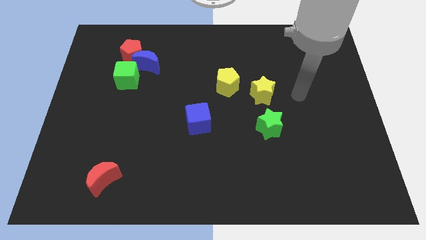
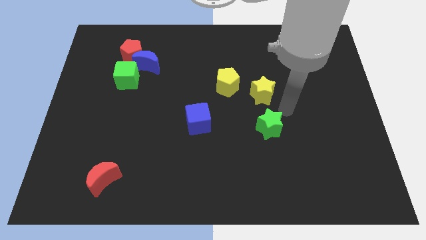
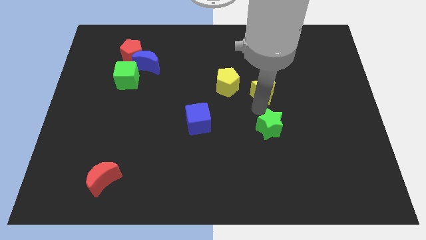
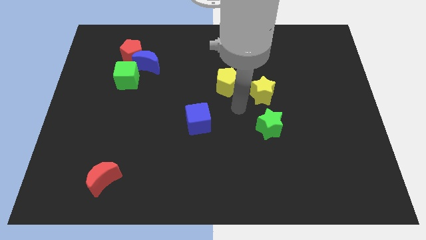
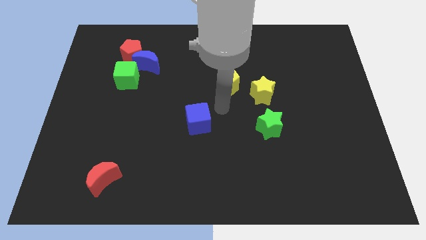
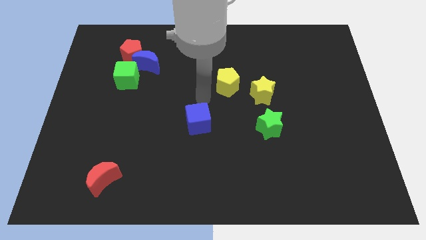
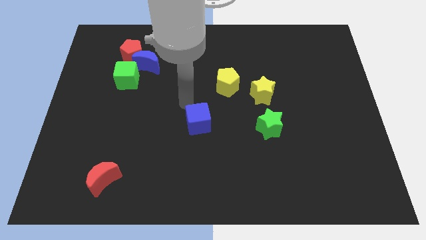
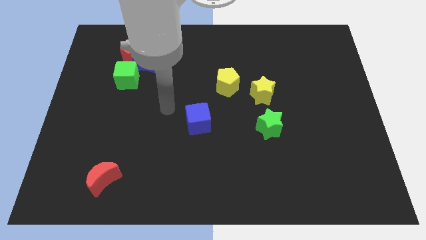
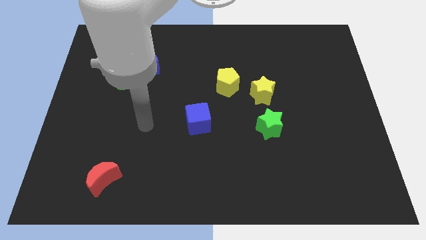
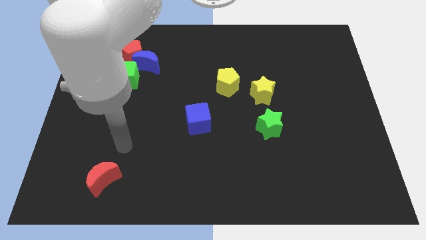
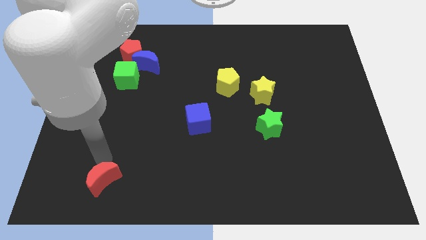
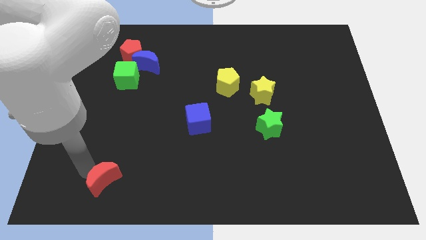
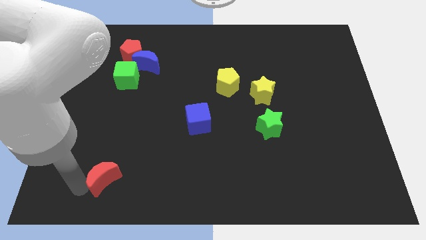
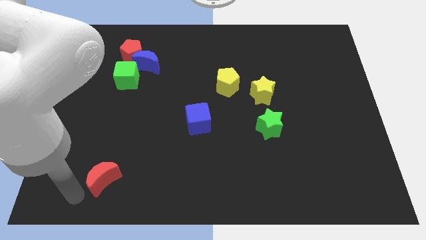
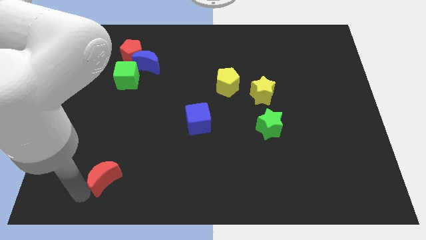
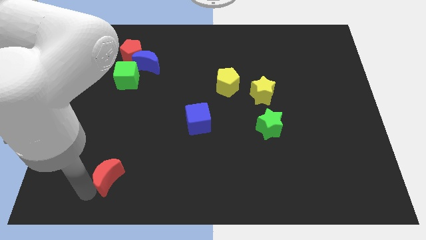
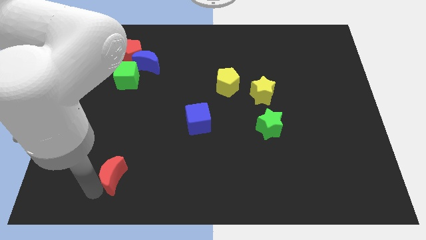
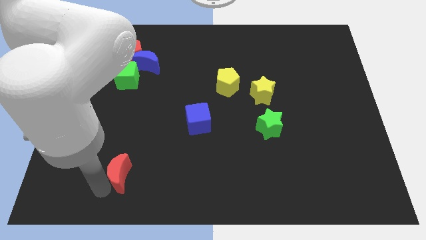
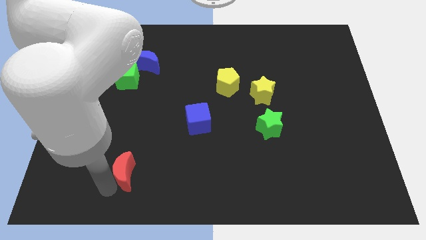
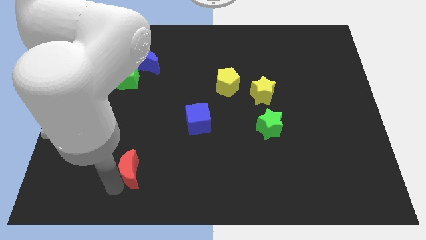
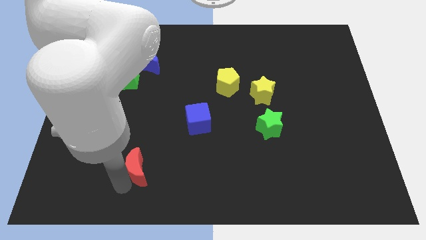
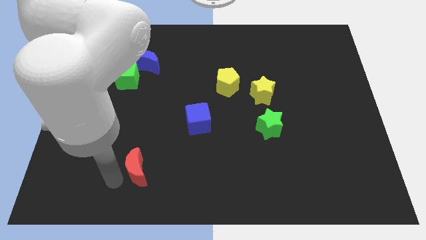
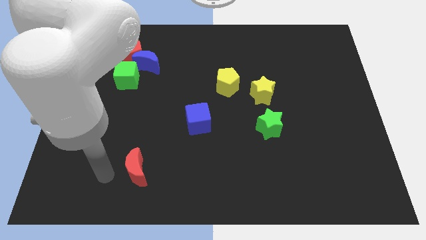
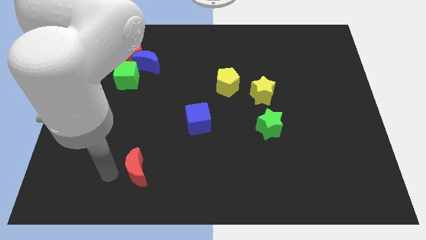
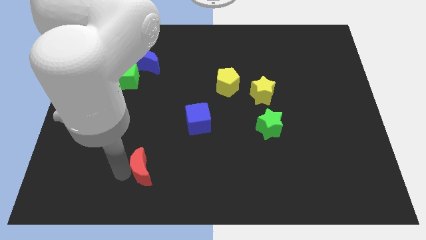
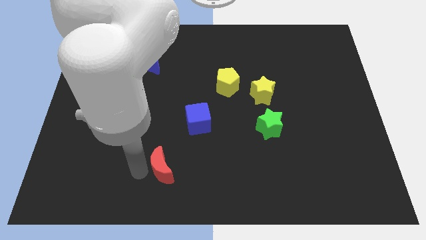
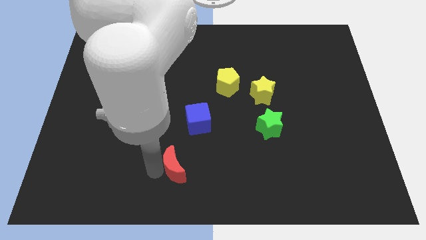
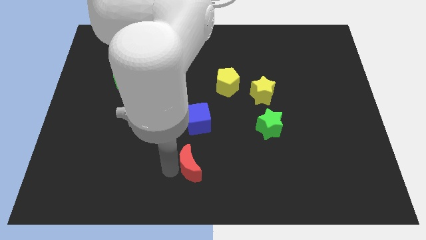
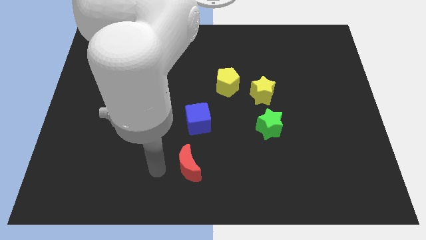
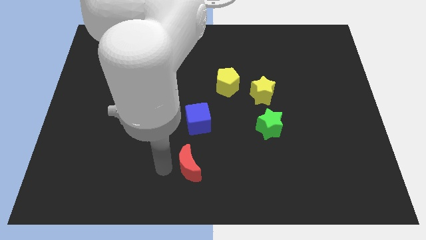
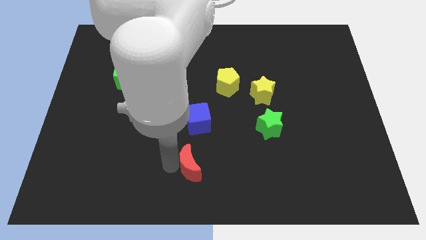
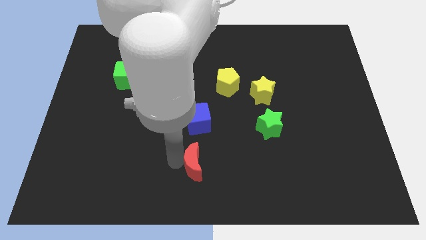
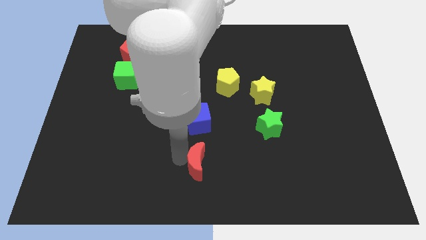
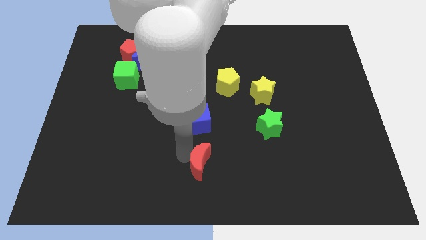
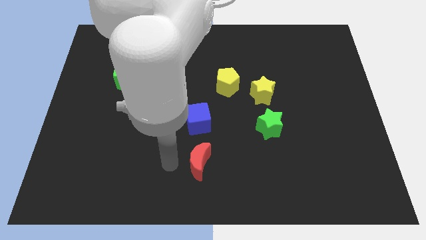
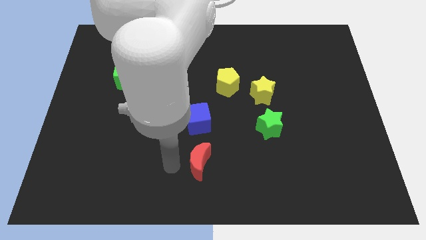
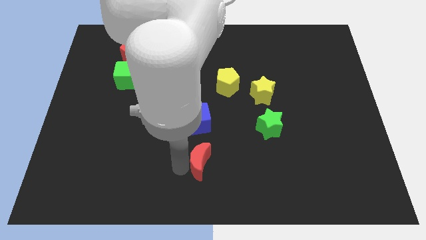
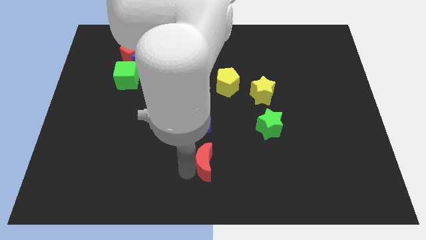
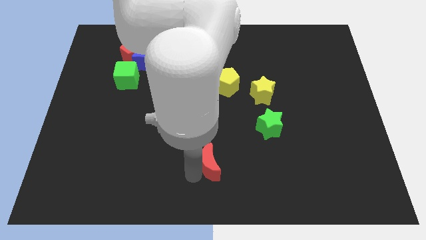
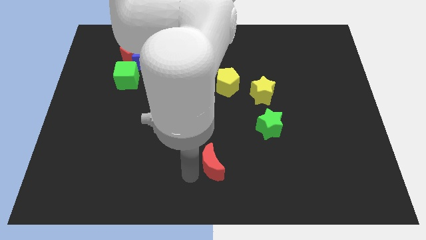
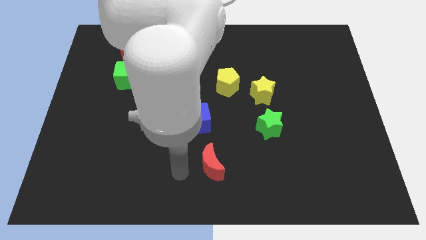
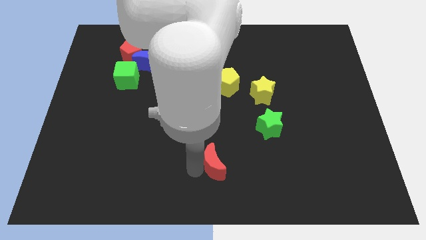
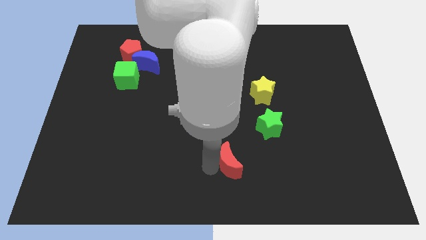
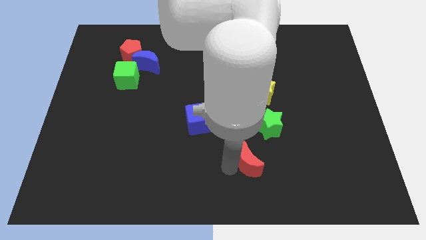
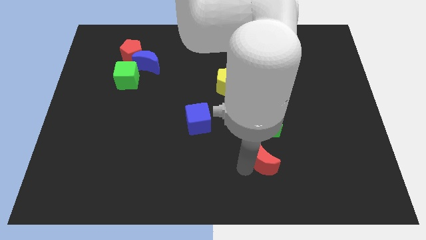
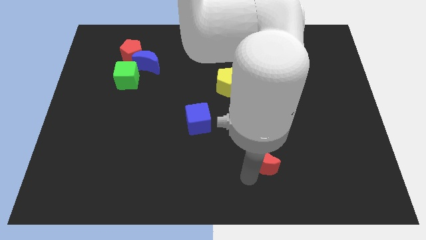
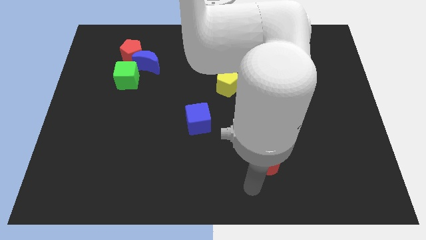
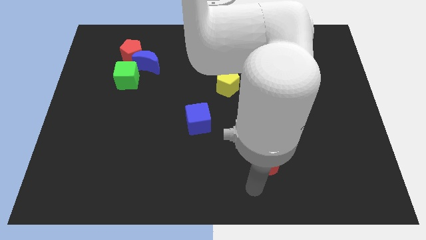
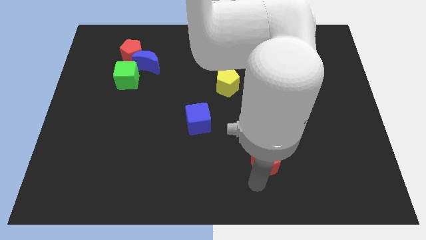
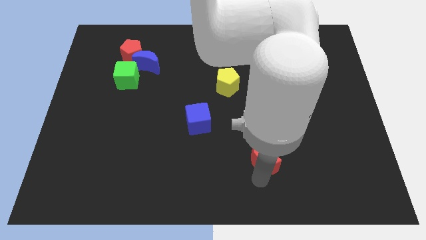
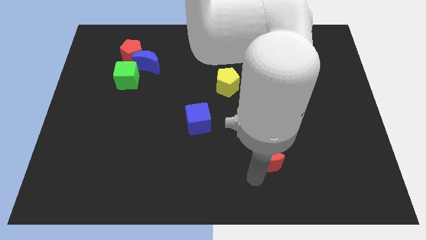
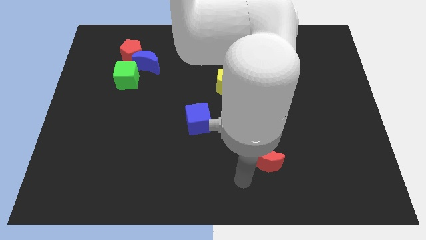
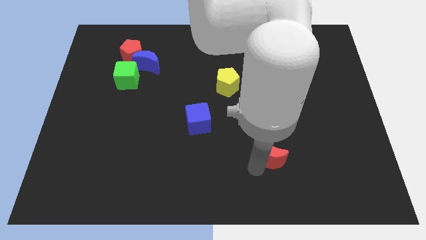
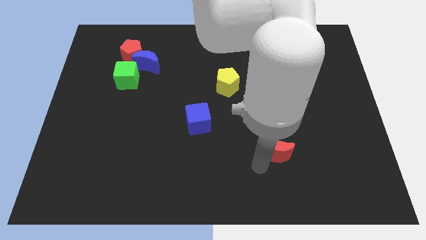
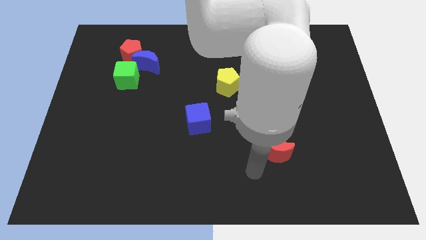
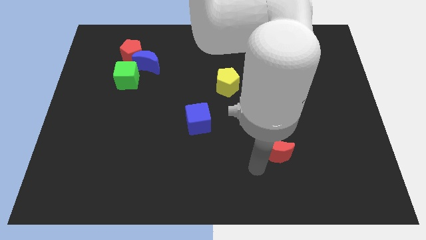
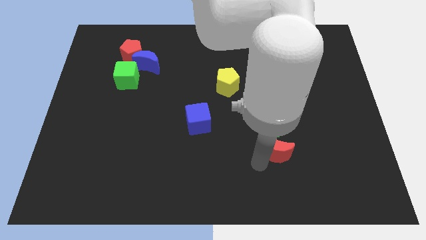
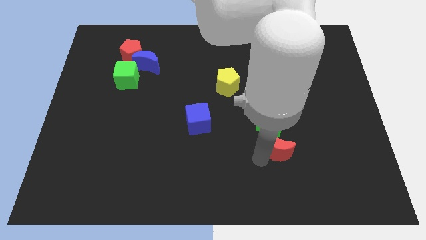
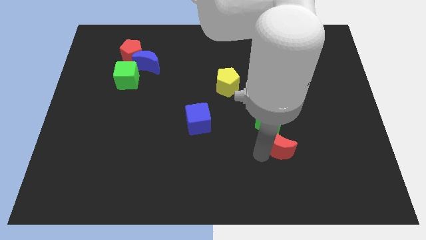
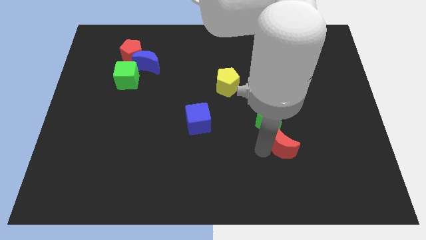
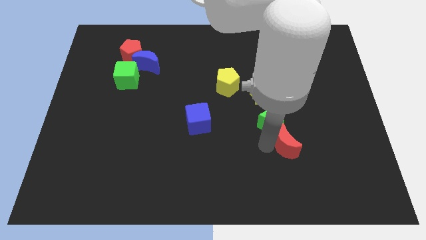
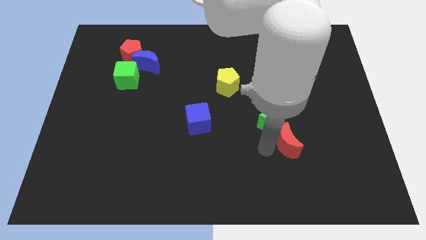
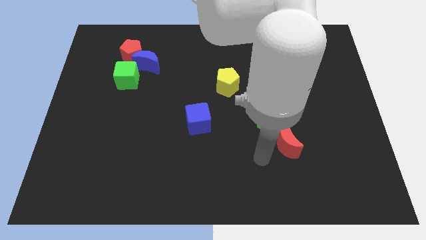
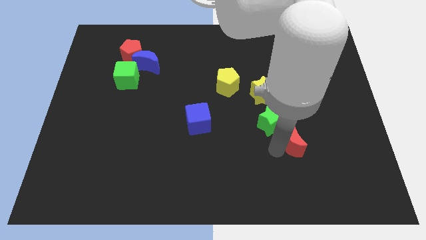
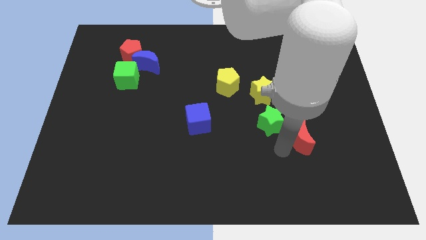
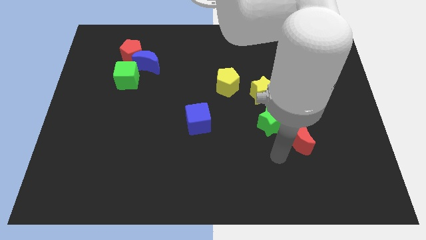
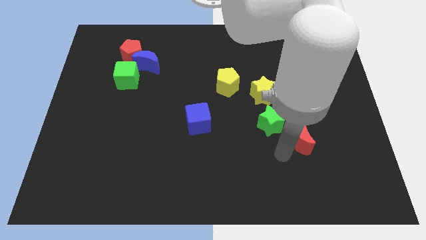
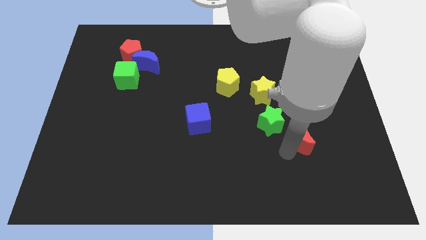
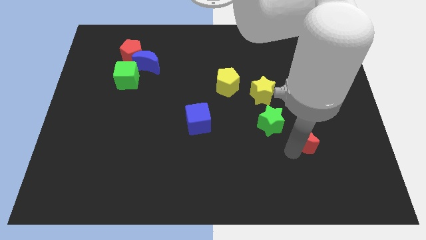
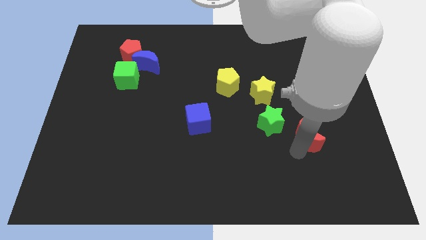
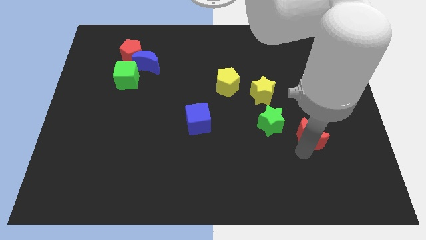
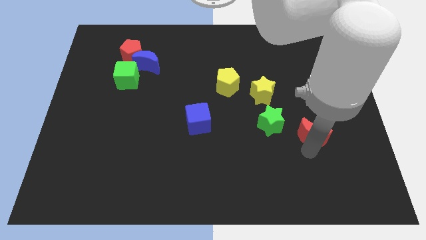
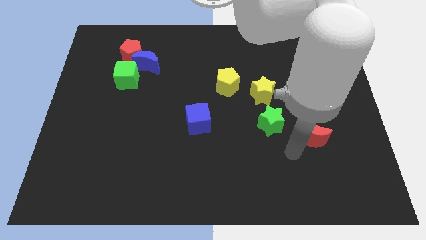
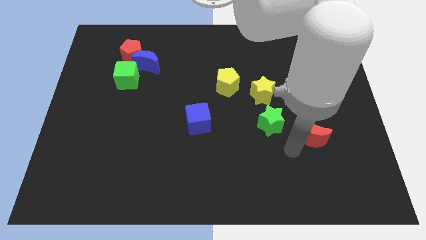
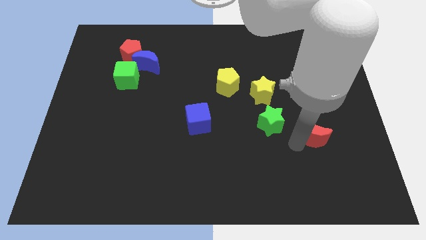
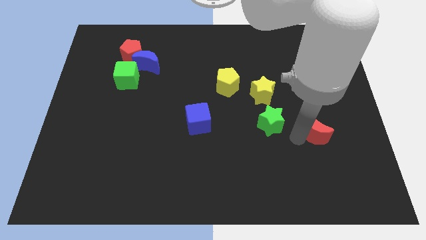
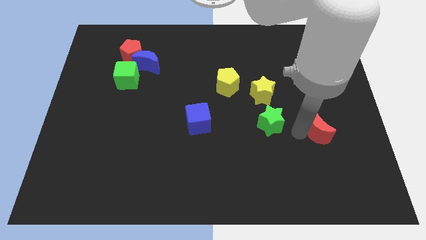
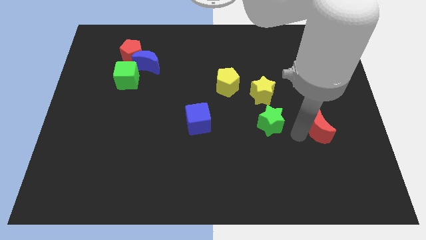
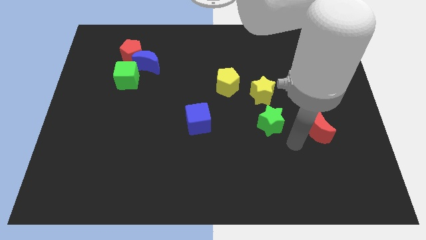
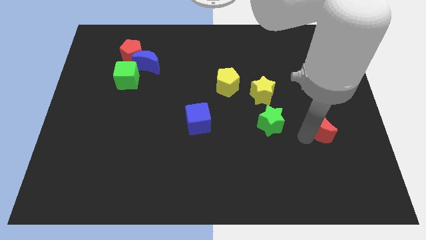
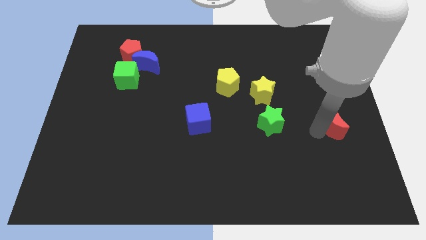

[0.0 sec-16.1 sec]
move the red moon to the right side
